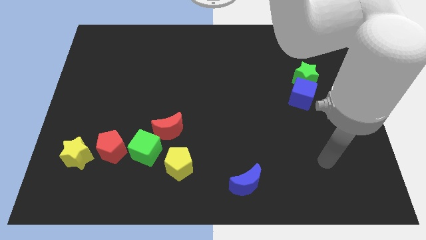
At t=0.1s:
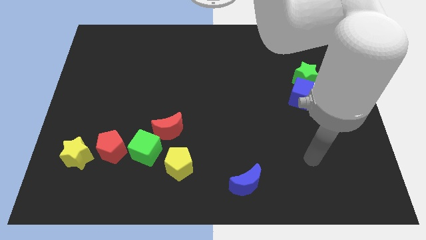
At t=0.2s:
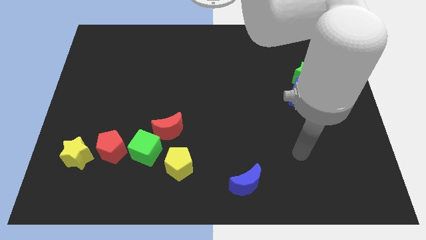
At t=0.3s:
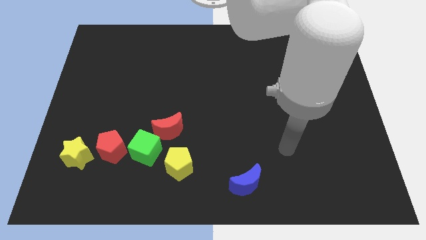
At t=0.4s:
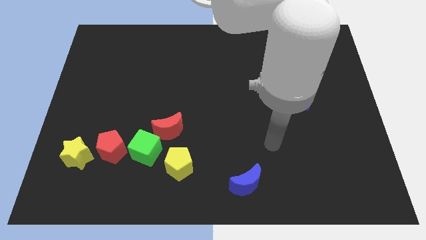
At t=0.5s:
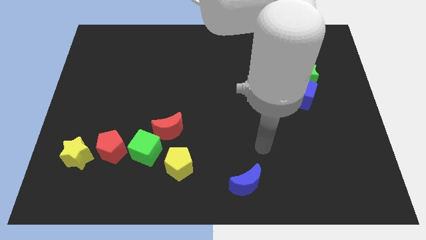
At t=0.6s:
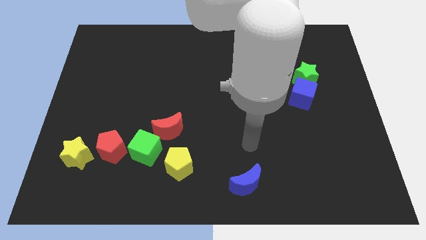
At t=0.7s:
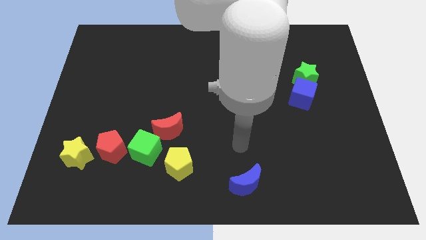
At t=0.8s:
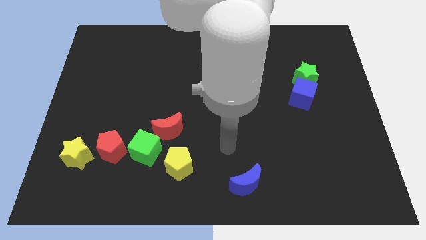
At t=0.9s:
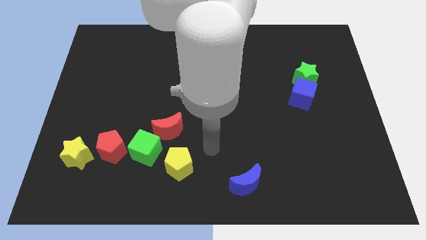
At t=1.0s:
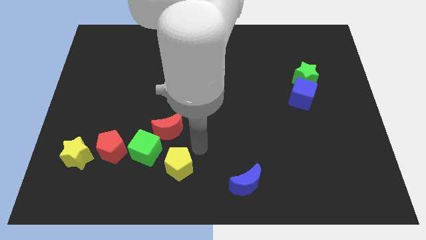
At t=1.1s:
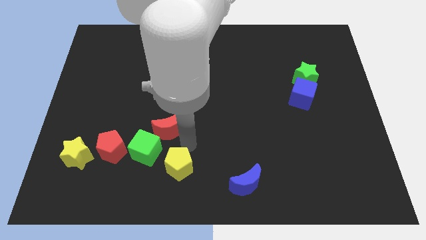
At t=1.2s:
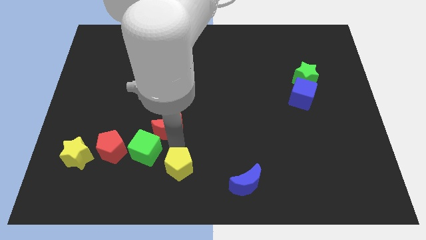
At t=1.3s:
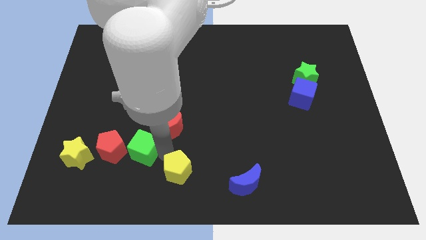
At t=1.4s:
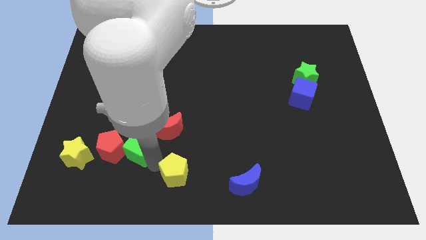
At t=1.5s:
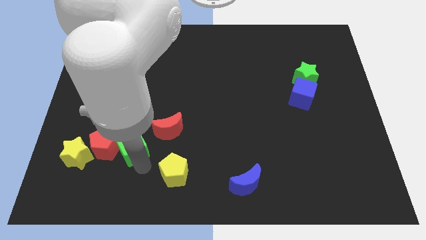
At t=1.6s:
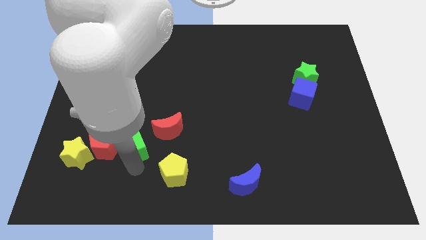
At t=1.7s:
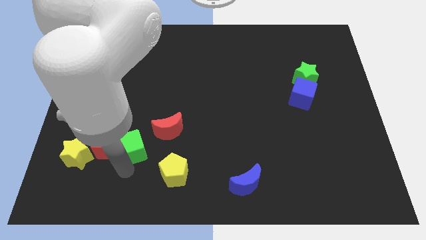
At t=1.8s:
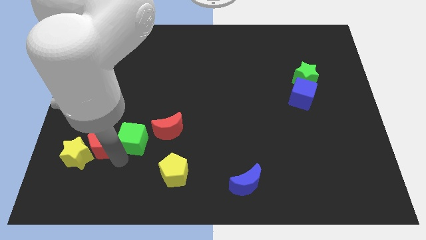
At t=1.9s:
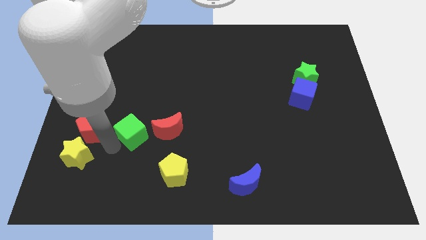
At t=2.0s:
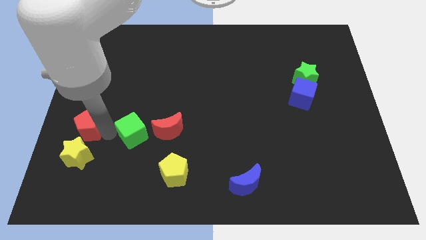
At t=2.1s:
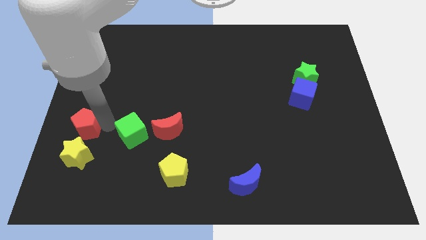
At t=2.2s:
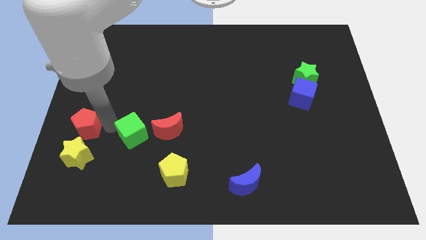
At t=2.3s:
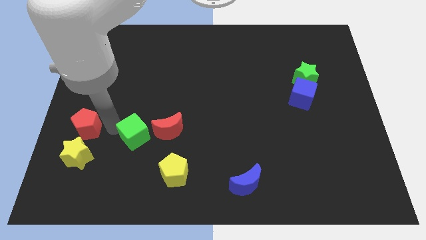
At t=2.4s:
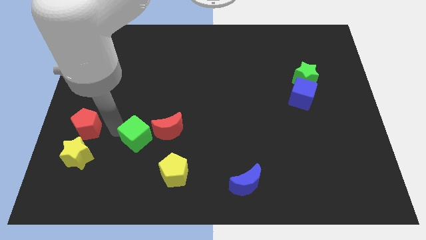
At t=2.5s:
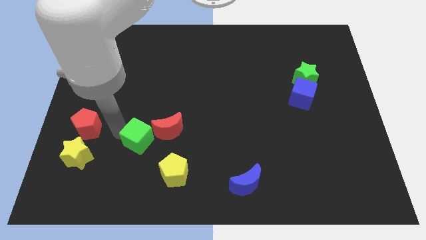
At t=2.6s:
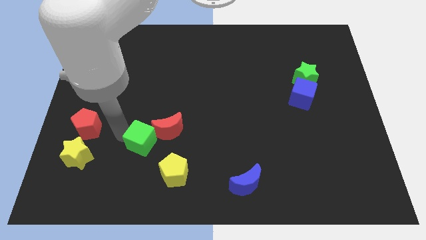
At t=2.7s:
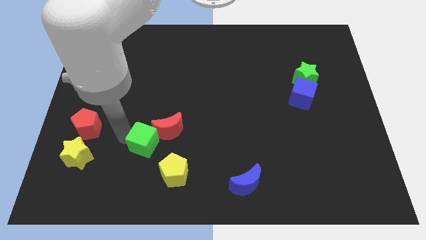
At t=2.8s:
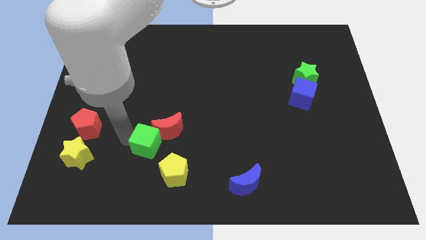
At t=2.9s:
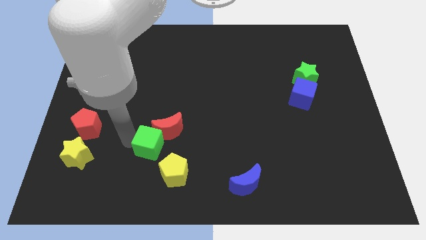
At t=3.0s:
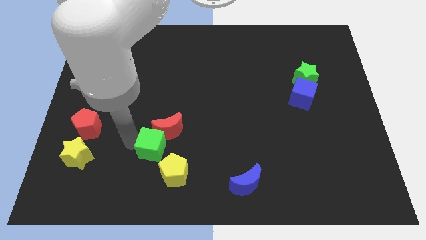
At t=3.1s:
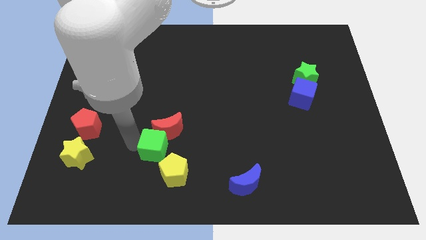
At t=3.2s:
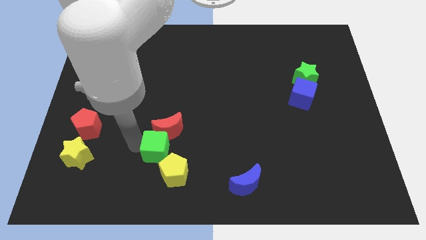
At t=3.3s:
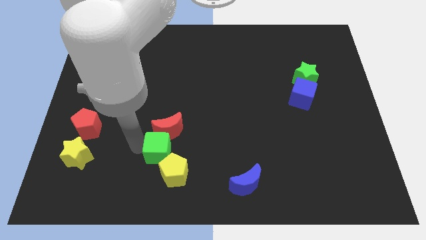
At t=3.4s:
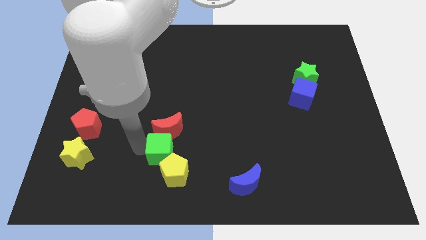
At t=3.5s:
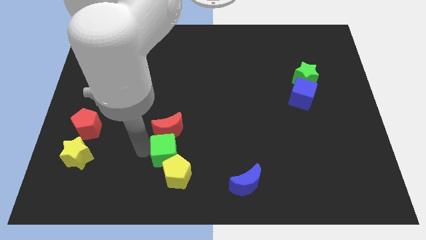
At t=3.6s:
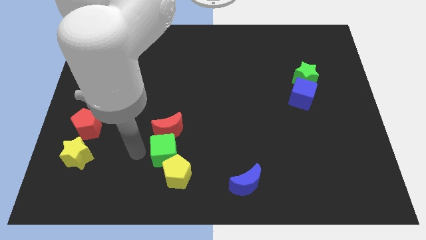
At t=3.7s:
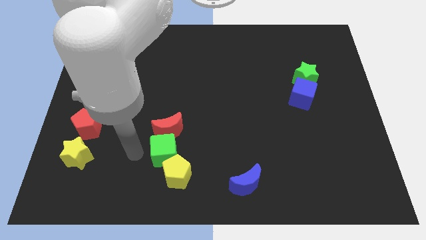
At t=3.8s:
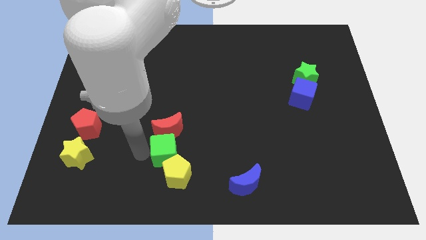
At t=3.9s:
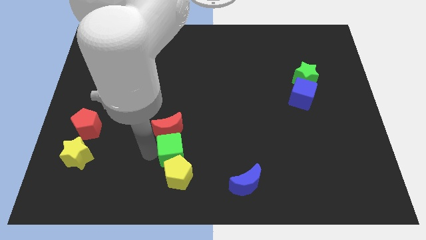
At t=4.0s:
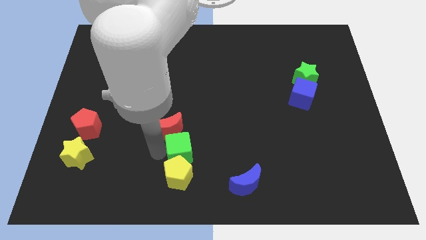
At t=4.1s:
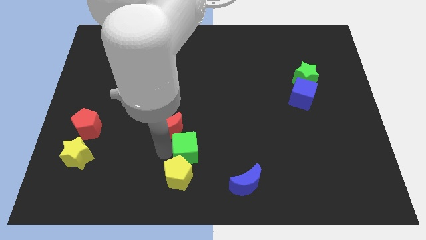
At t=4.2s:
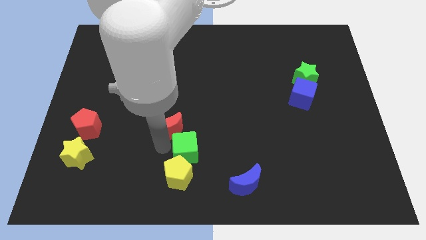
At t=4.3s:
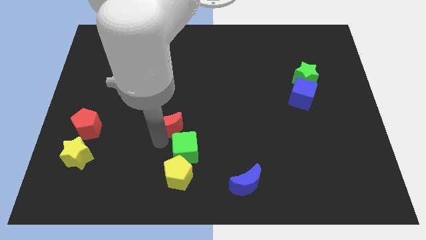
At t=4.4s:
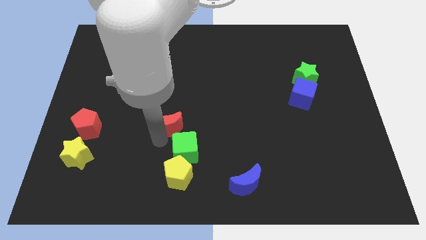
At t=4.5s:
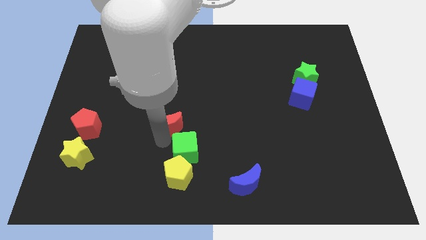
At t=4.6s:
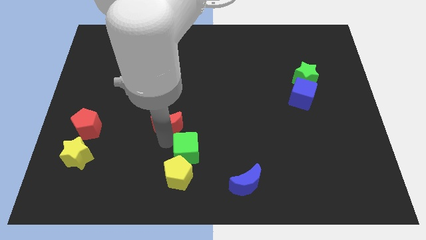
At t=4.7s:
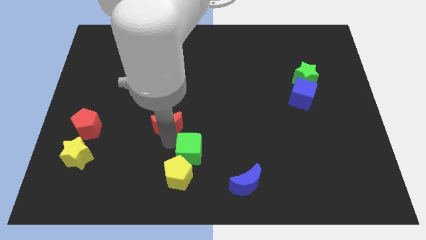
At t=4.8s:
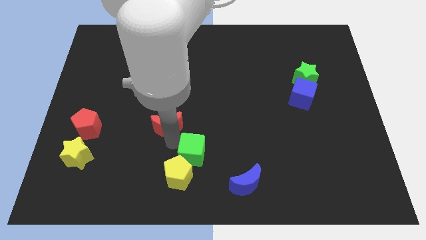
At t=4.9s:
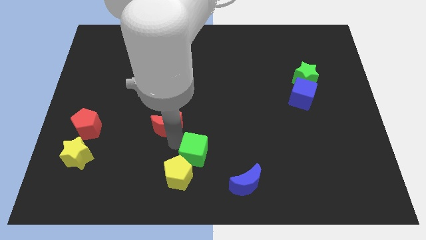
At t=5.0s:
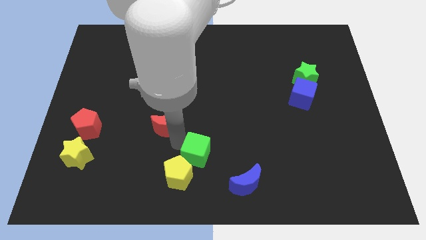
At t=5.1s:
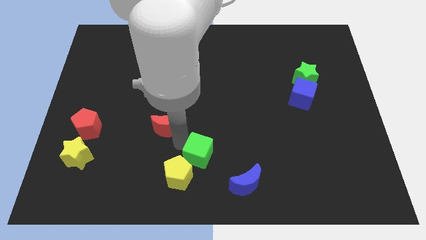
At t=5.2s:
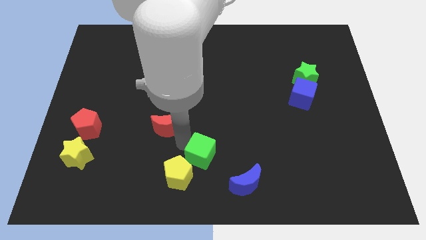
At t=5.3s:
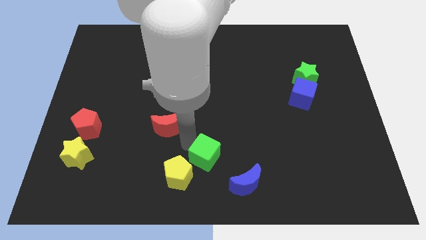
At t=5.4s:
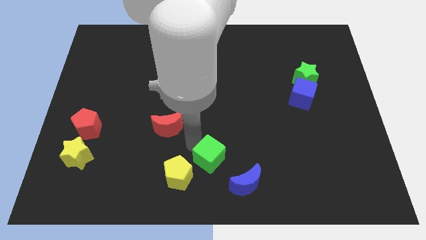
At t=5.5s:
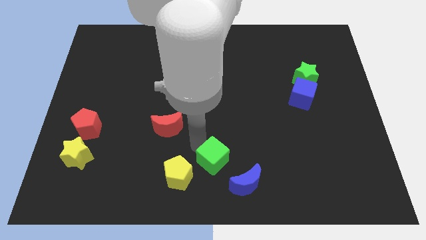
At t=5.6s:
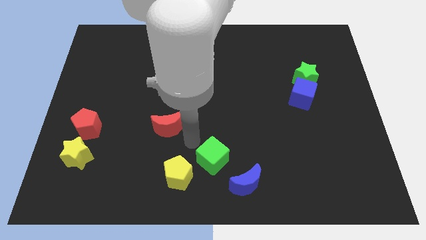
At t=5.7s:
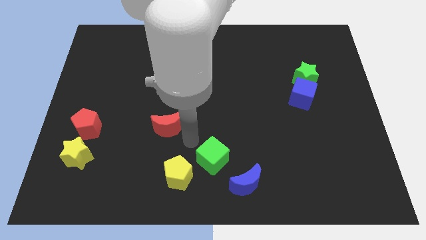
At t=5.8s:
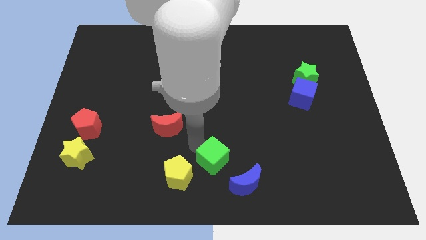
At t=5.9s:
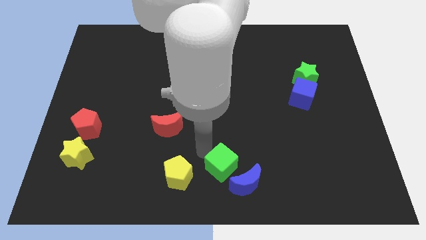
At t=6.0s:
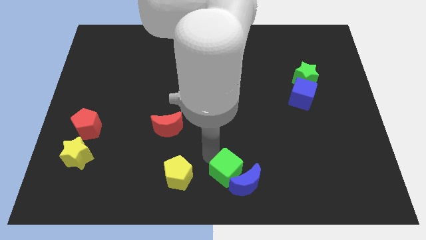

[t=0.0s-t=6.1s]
move the green cube to the blue moon

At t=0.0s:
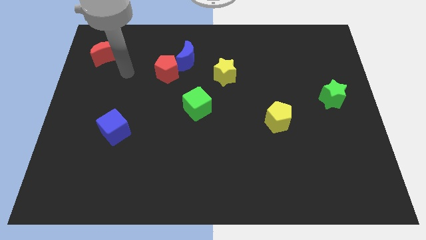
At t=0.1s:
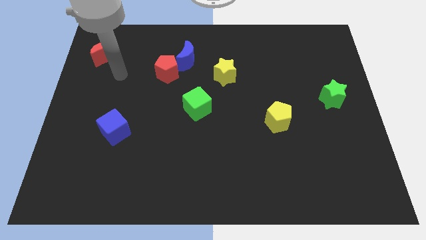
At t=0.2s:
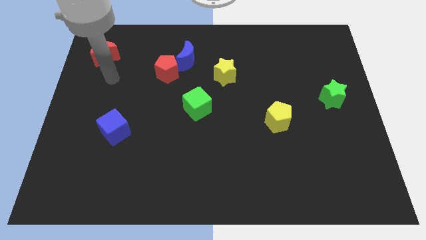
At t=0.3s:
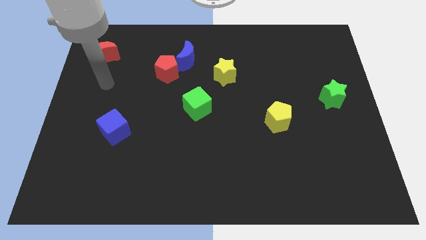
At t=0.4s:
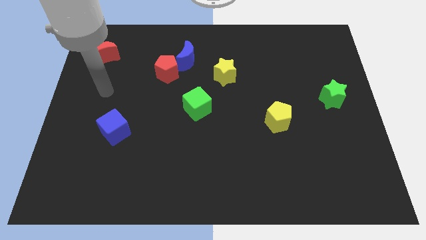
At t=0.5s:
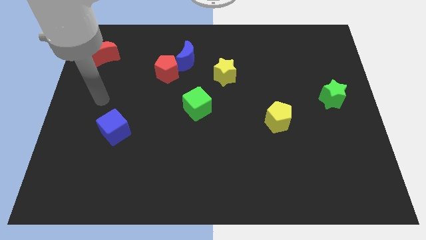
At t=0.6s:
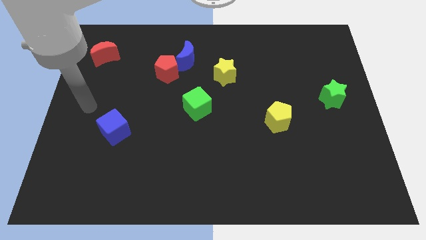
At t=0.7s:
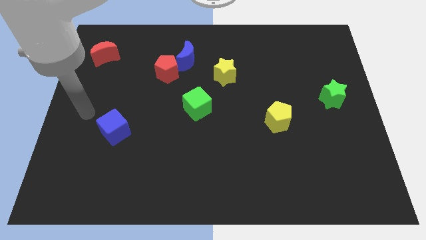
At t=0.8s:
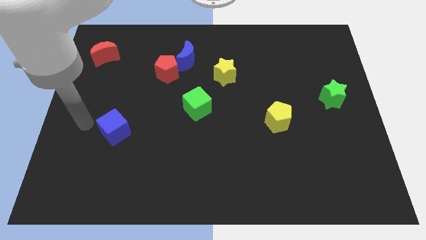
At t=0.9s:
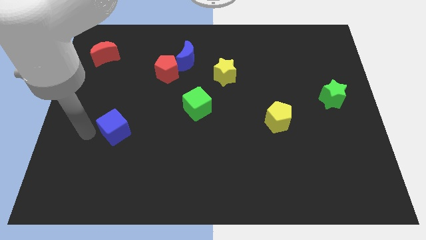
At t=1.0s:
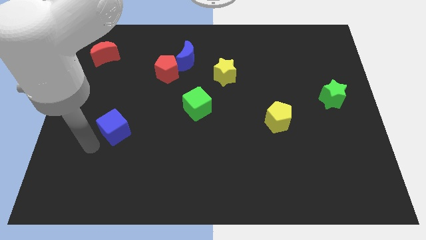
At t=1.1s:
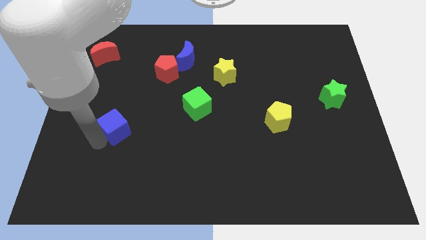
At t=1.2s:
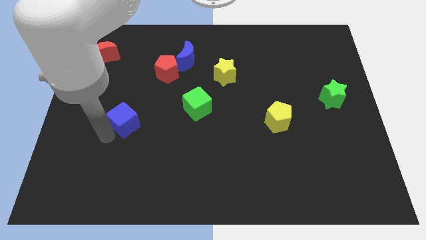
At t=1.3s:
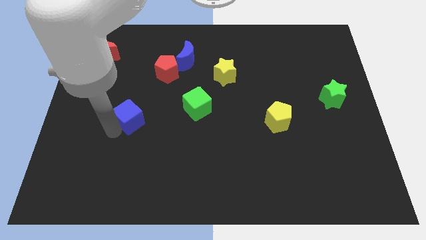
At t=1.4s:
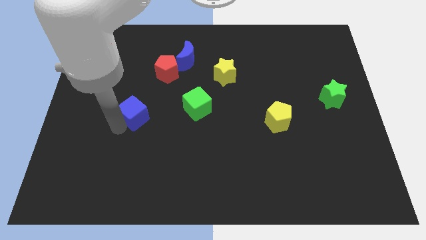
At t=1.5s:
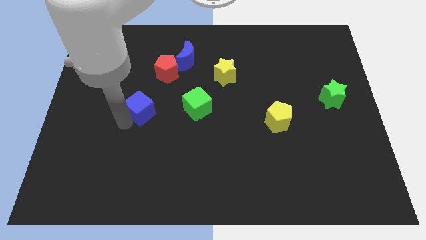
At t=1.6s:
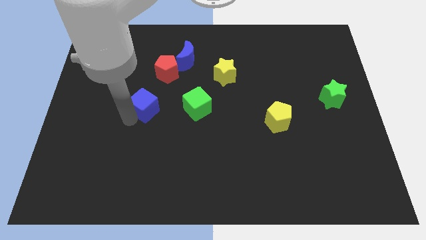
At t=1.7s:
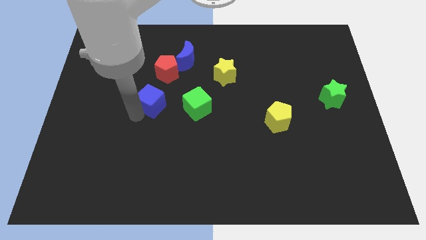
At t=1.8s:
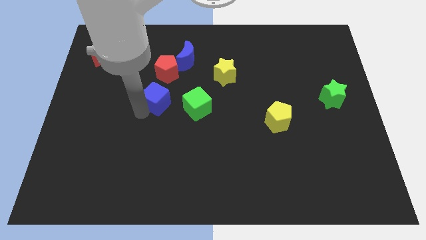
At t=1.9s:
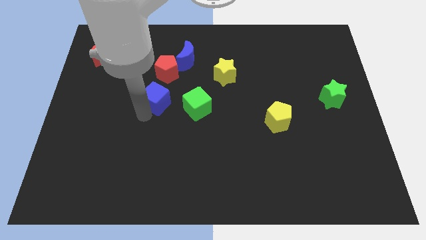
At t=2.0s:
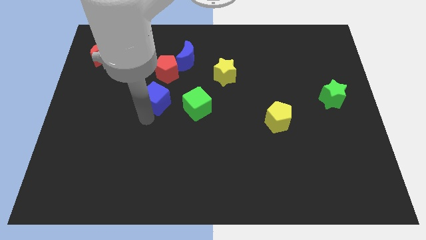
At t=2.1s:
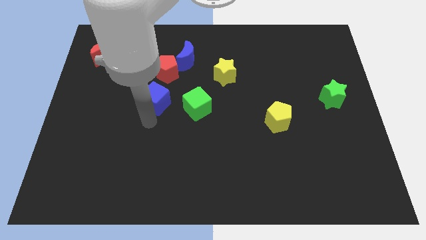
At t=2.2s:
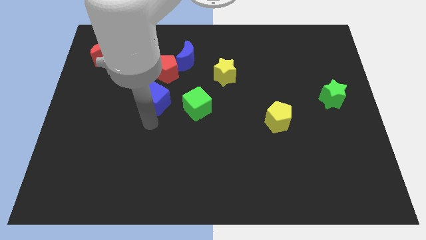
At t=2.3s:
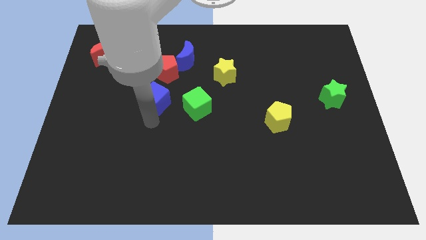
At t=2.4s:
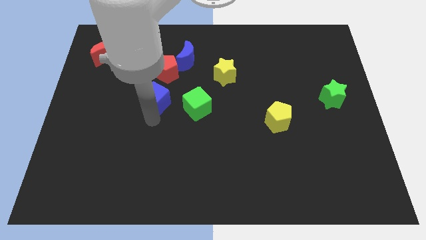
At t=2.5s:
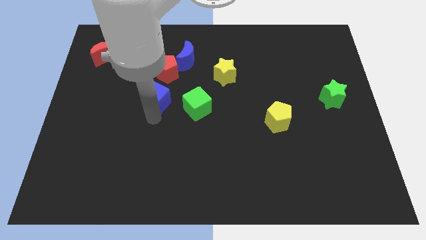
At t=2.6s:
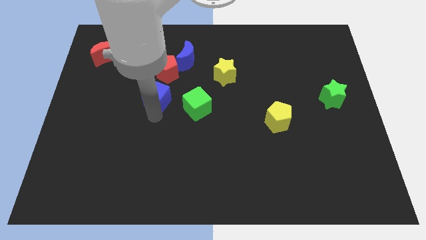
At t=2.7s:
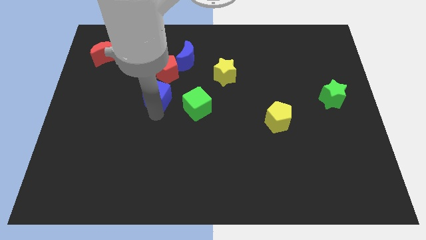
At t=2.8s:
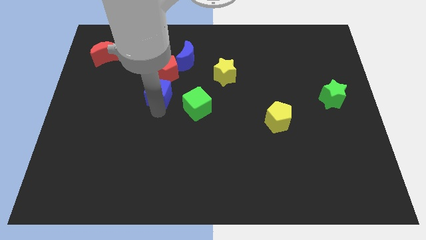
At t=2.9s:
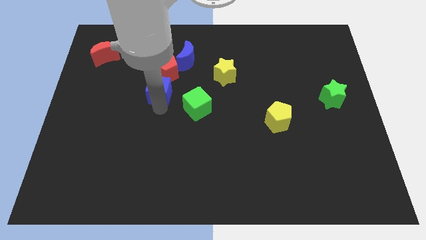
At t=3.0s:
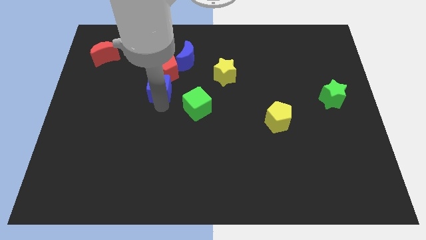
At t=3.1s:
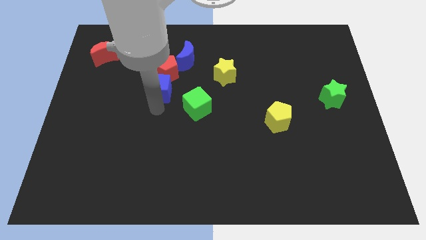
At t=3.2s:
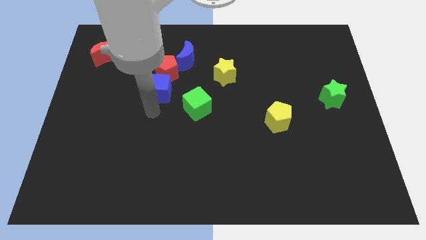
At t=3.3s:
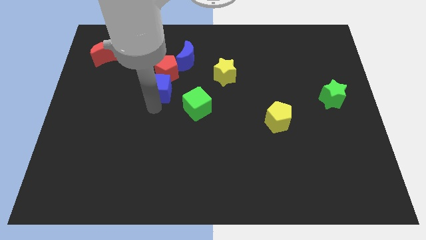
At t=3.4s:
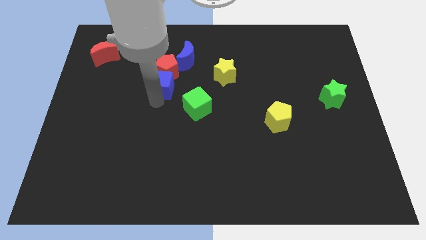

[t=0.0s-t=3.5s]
push the blue cube towards the red pentagon
